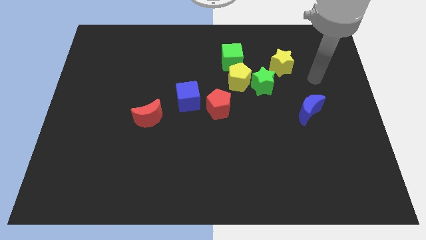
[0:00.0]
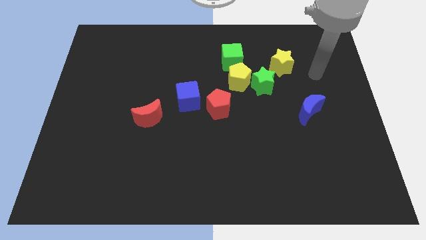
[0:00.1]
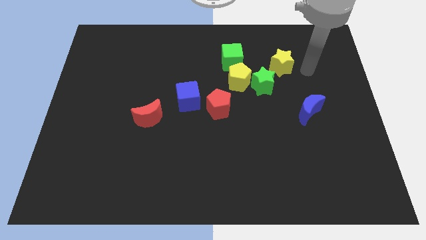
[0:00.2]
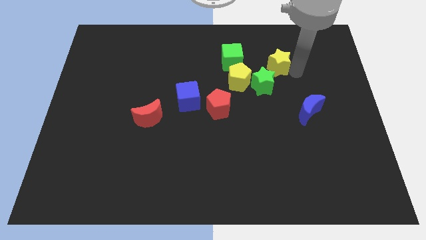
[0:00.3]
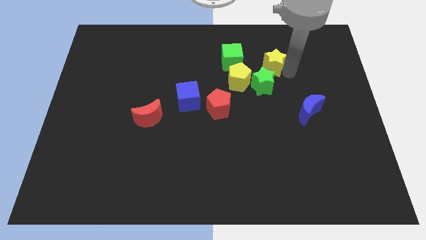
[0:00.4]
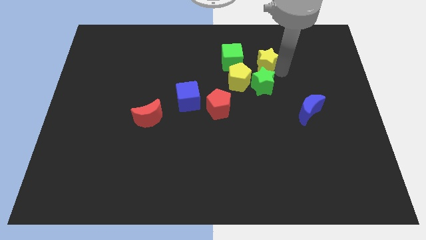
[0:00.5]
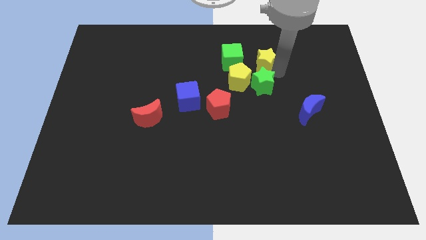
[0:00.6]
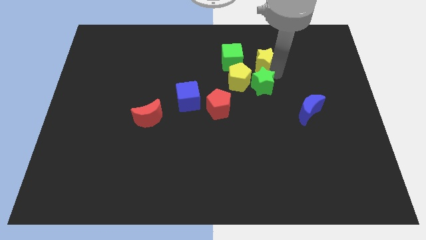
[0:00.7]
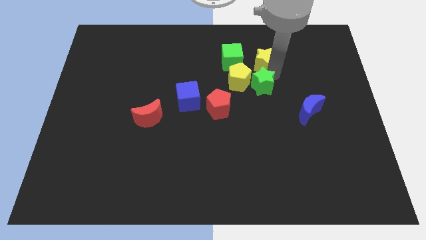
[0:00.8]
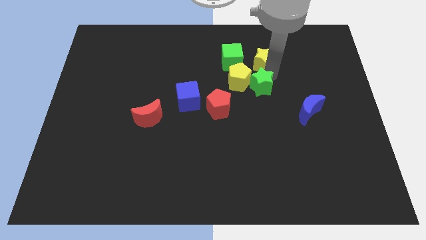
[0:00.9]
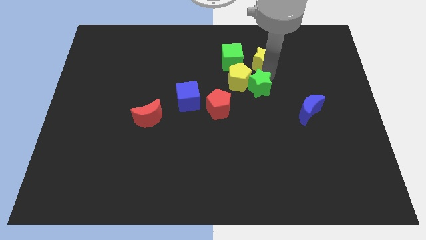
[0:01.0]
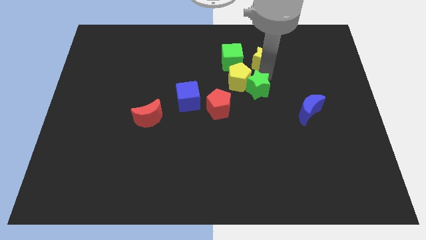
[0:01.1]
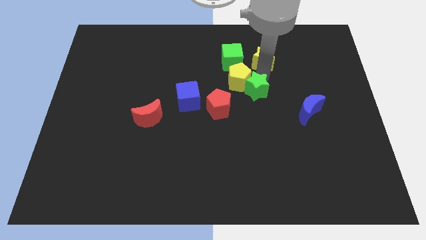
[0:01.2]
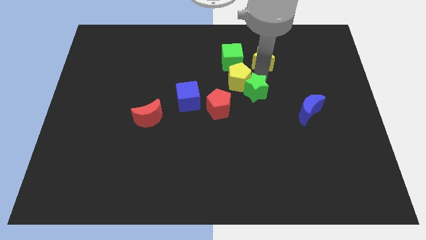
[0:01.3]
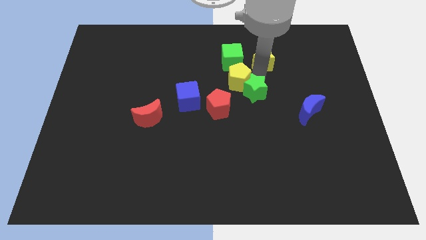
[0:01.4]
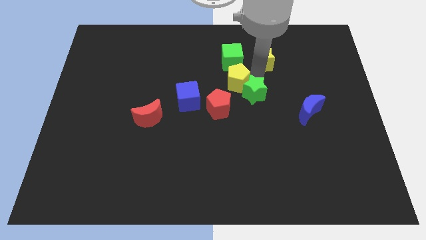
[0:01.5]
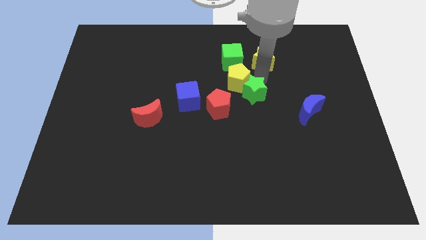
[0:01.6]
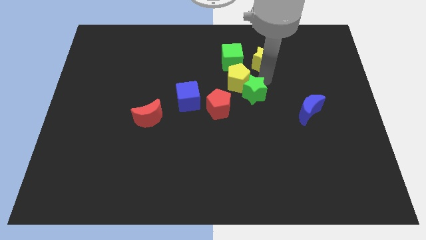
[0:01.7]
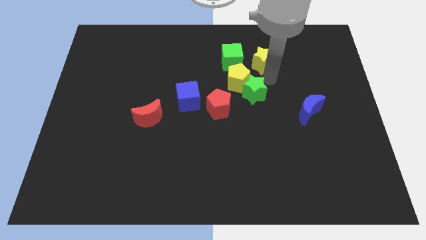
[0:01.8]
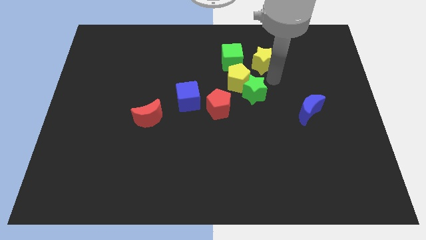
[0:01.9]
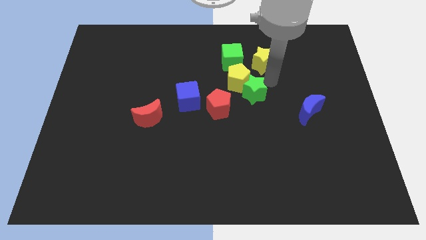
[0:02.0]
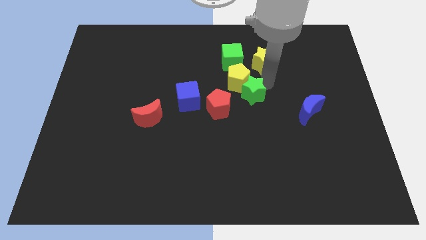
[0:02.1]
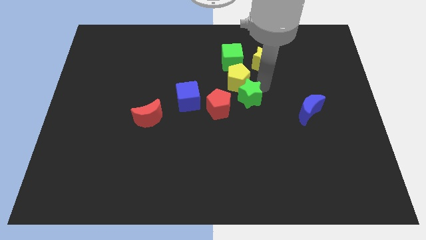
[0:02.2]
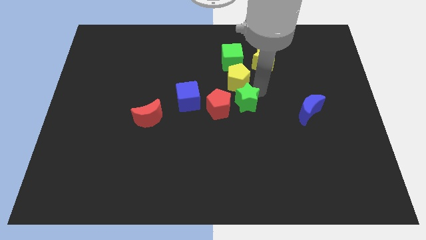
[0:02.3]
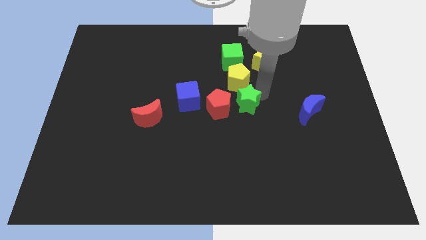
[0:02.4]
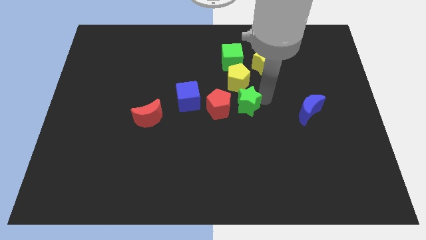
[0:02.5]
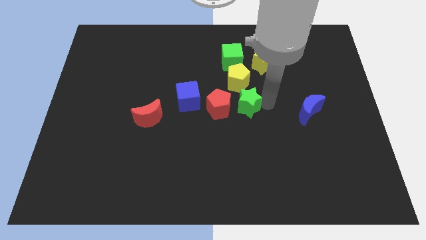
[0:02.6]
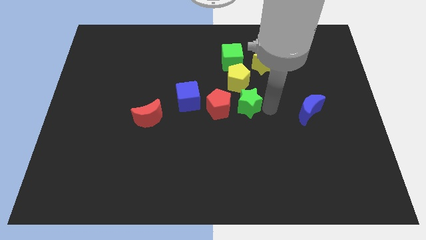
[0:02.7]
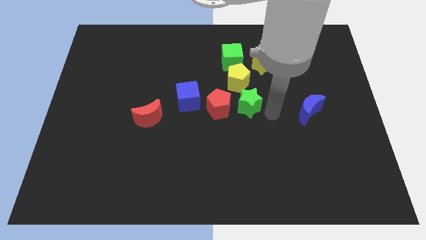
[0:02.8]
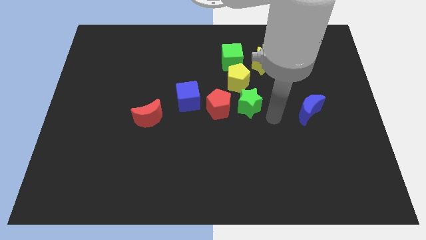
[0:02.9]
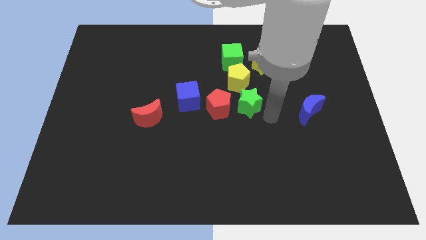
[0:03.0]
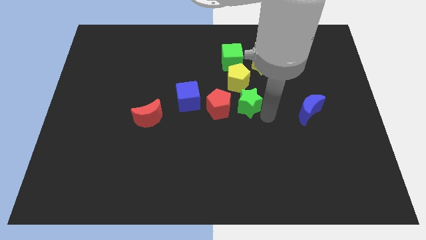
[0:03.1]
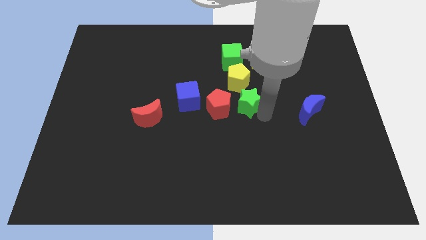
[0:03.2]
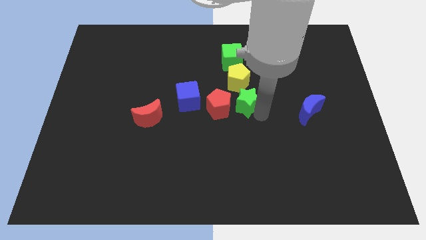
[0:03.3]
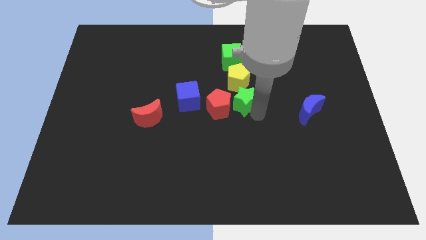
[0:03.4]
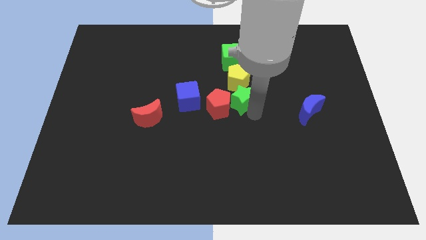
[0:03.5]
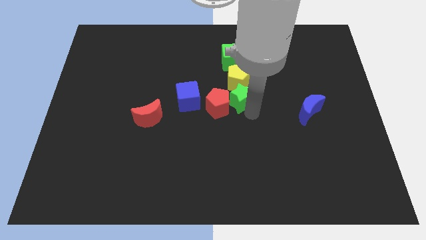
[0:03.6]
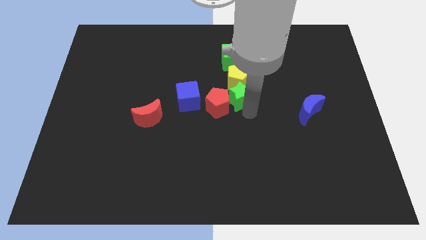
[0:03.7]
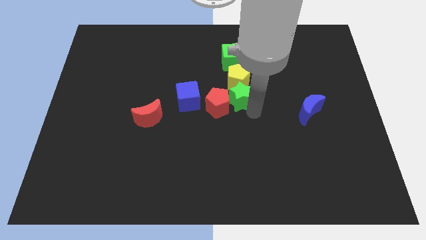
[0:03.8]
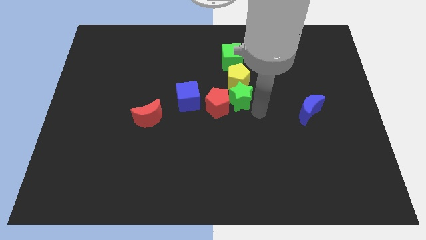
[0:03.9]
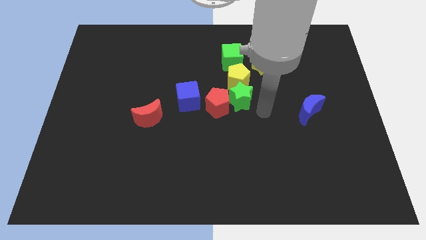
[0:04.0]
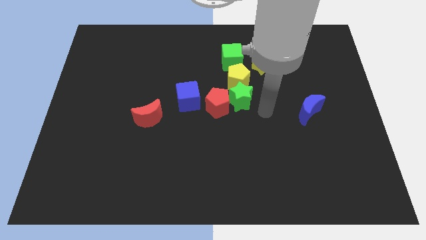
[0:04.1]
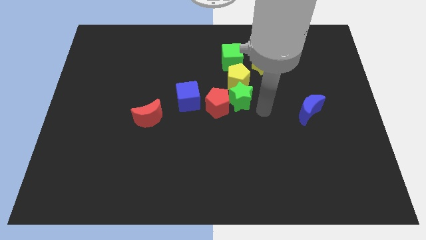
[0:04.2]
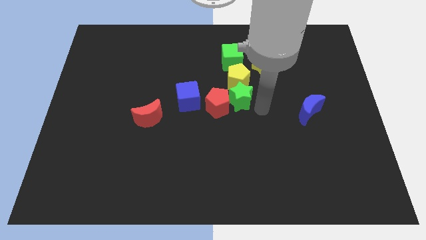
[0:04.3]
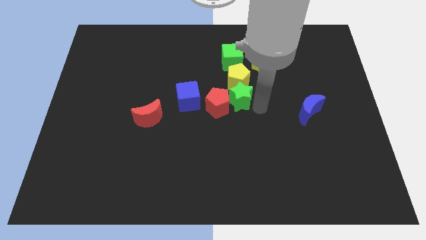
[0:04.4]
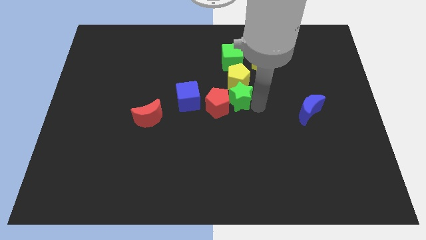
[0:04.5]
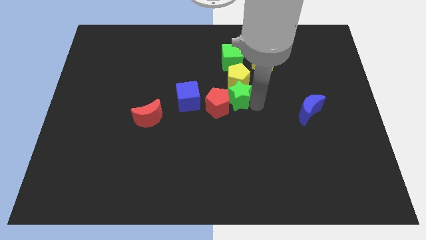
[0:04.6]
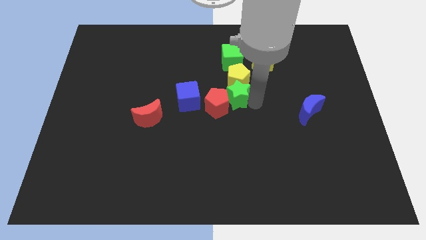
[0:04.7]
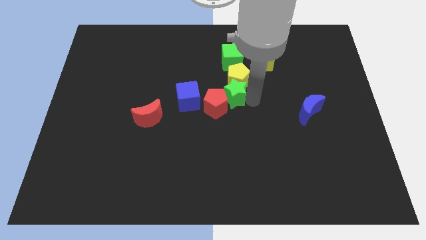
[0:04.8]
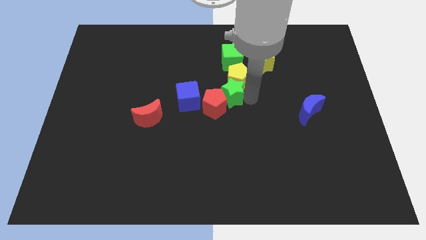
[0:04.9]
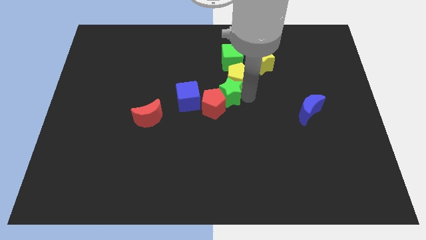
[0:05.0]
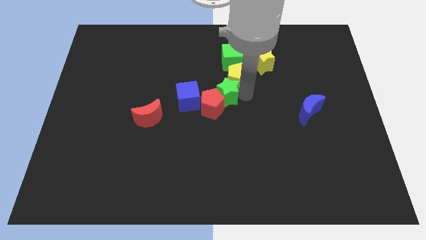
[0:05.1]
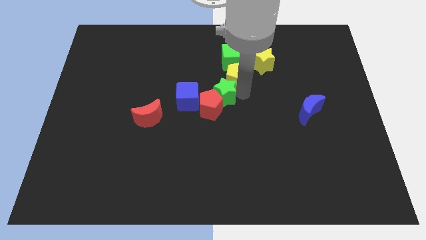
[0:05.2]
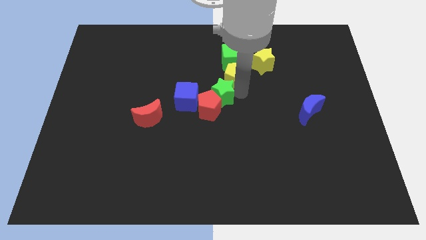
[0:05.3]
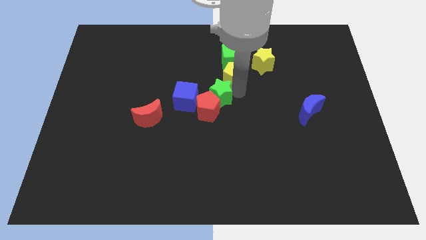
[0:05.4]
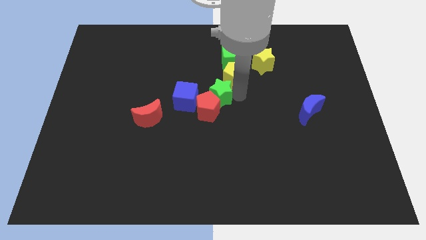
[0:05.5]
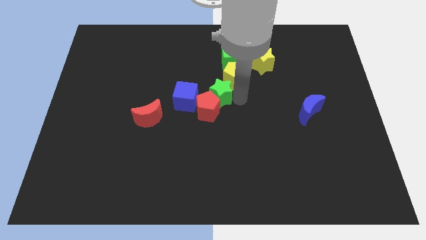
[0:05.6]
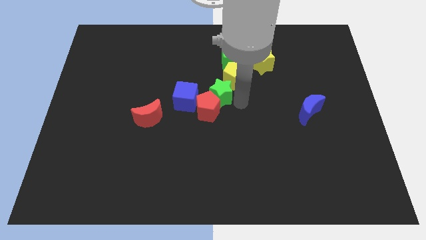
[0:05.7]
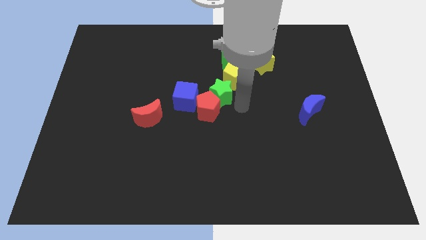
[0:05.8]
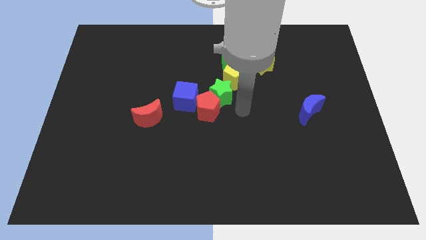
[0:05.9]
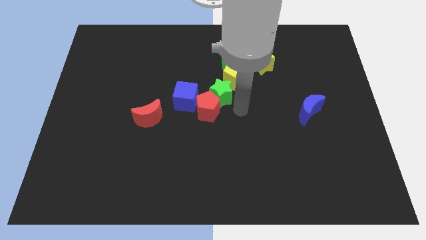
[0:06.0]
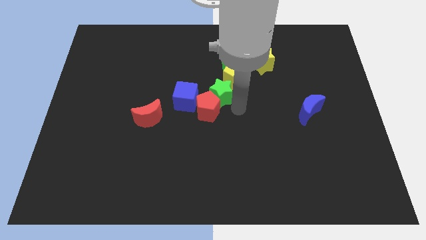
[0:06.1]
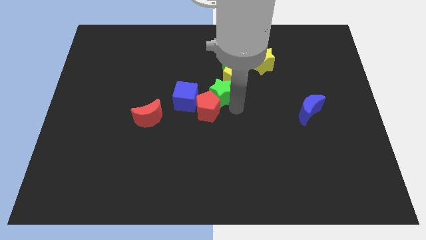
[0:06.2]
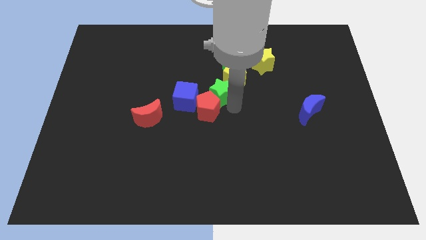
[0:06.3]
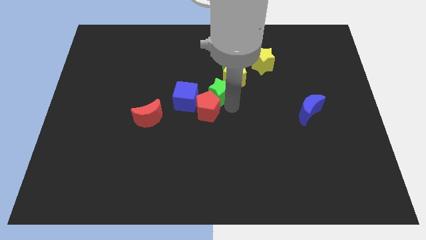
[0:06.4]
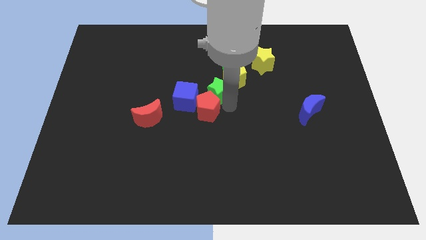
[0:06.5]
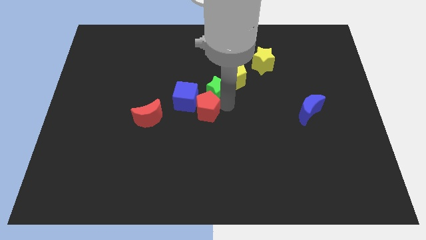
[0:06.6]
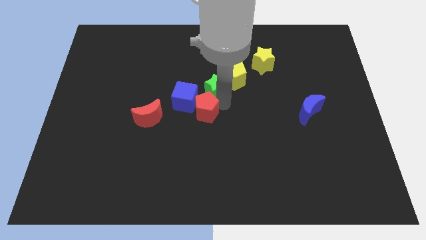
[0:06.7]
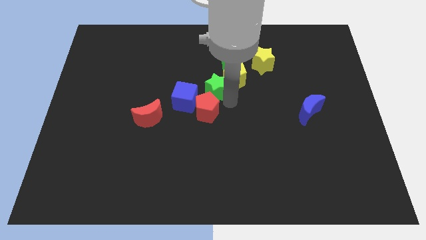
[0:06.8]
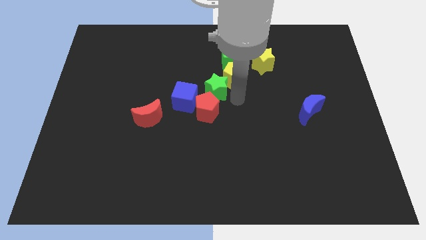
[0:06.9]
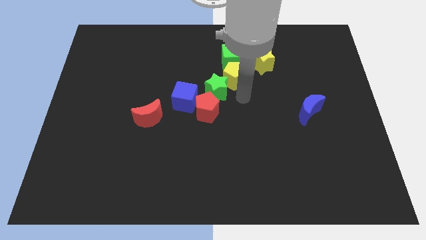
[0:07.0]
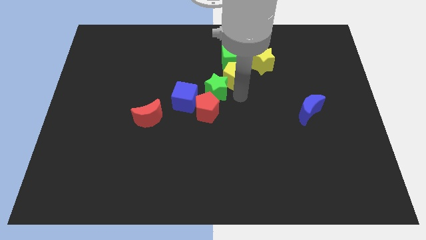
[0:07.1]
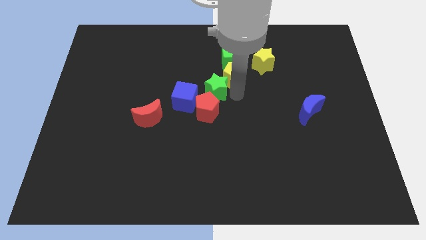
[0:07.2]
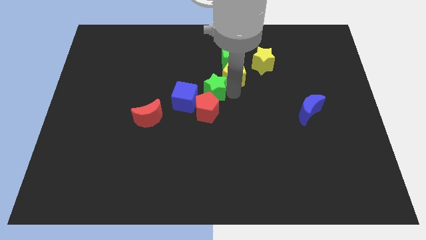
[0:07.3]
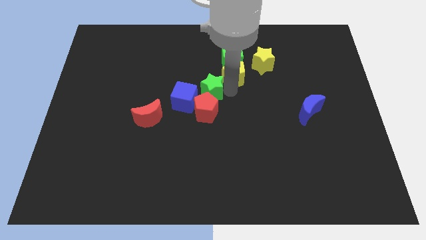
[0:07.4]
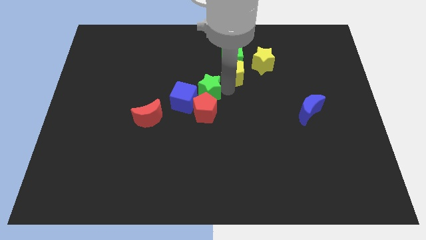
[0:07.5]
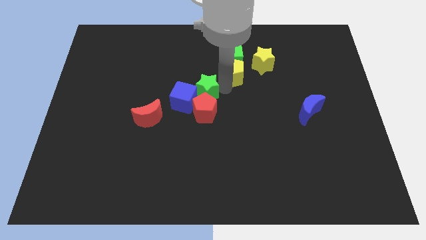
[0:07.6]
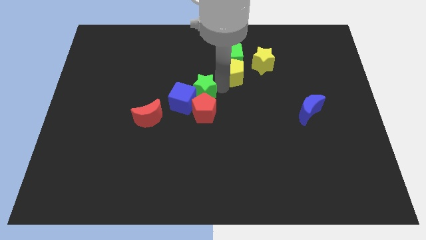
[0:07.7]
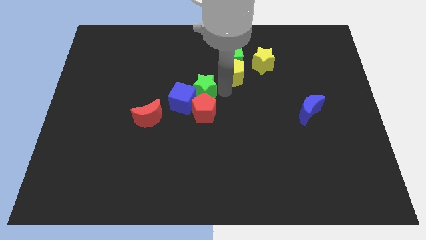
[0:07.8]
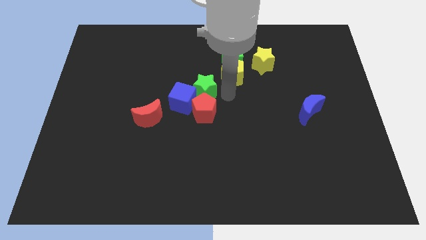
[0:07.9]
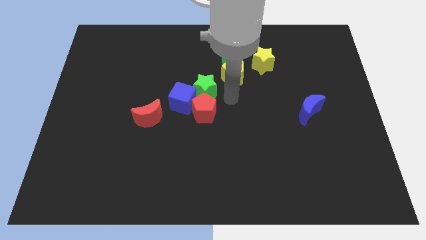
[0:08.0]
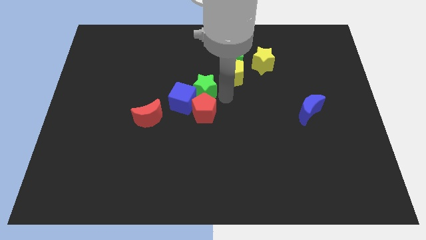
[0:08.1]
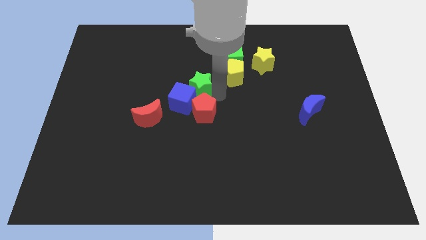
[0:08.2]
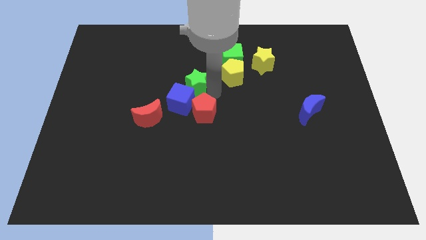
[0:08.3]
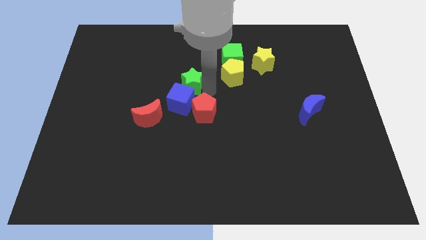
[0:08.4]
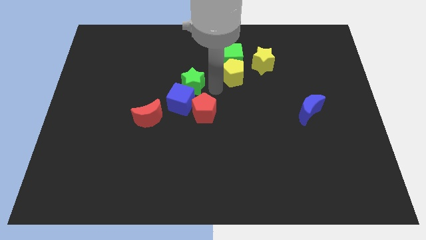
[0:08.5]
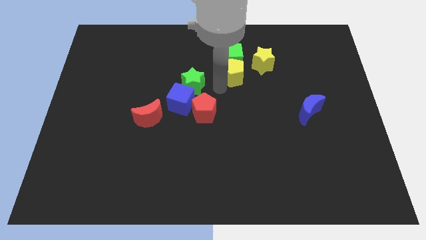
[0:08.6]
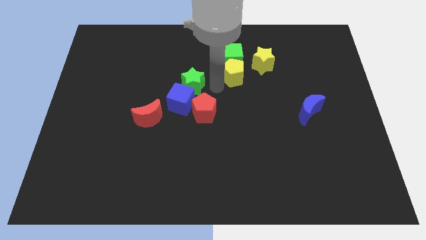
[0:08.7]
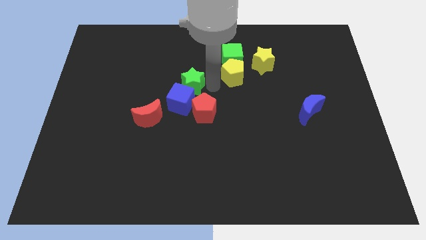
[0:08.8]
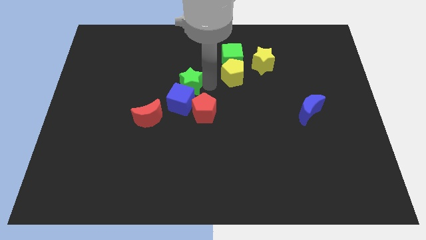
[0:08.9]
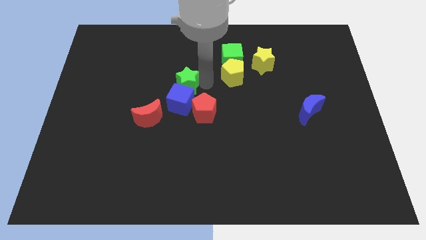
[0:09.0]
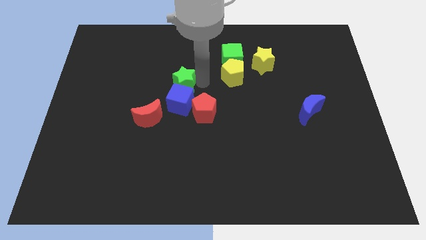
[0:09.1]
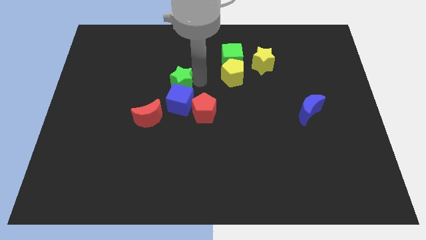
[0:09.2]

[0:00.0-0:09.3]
push the green star to the left
